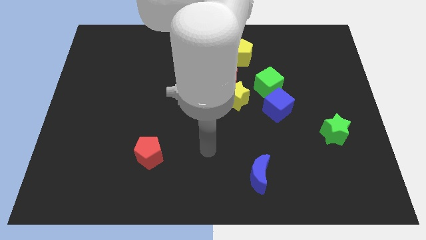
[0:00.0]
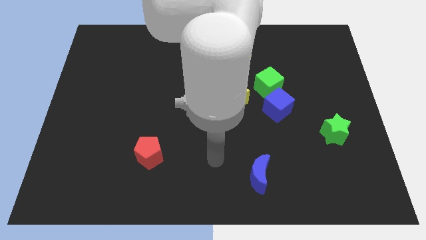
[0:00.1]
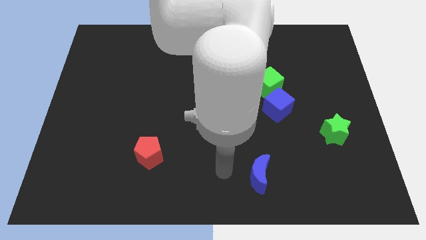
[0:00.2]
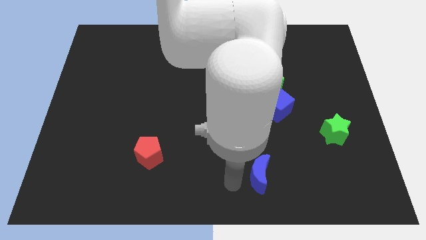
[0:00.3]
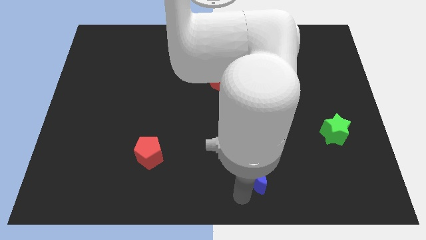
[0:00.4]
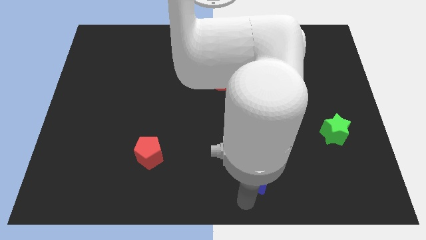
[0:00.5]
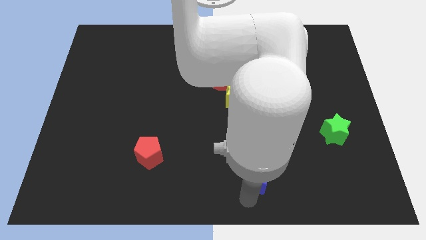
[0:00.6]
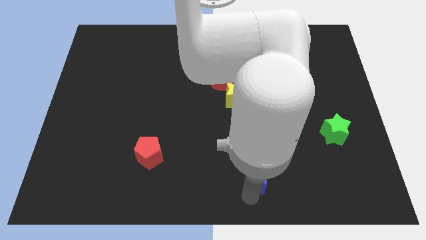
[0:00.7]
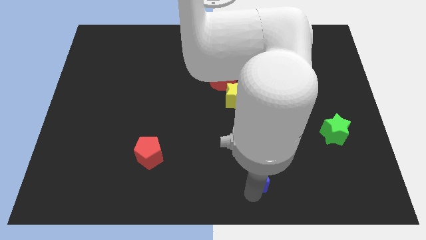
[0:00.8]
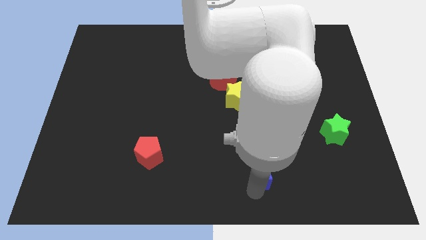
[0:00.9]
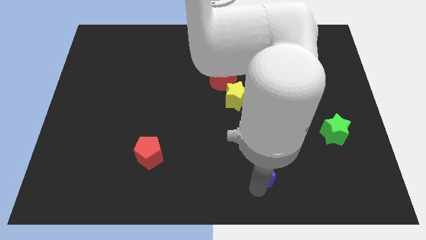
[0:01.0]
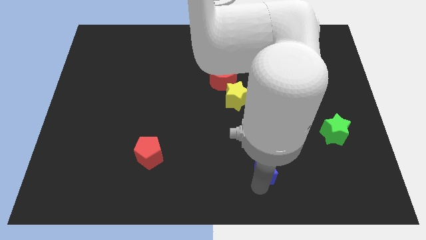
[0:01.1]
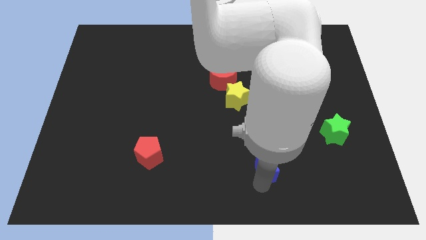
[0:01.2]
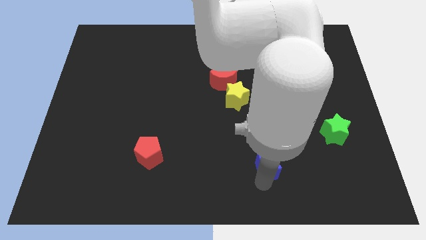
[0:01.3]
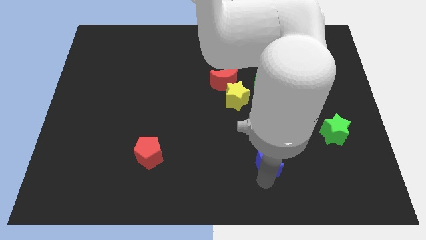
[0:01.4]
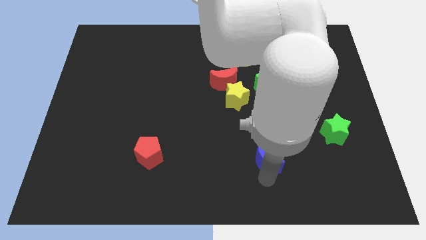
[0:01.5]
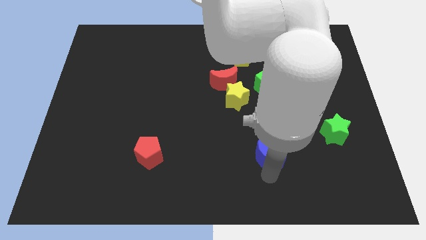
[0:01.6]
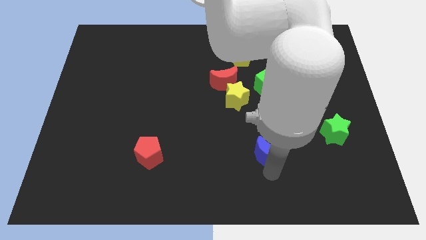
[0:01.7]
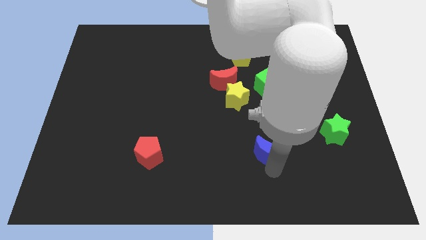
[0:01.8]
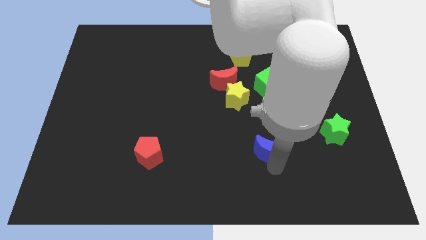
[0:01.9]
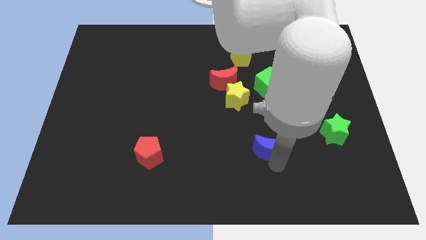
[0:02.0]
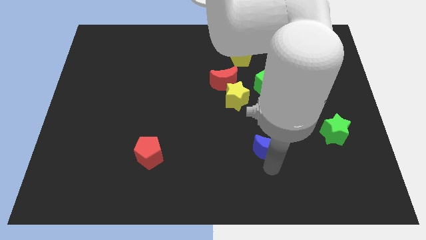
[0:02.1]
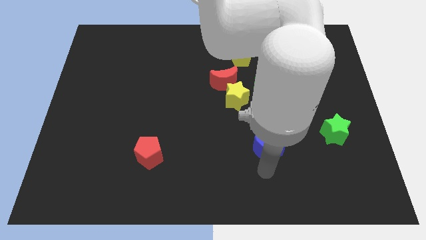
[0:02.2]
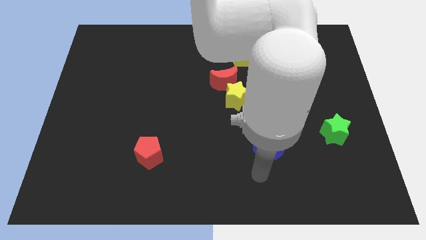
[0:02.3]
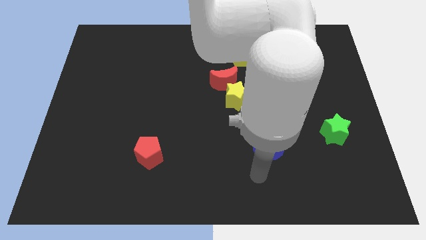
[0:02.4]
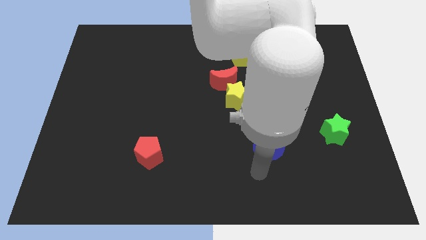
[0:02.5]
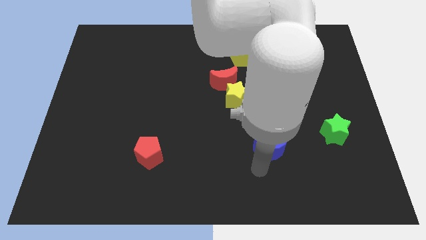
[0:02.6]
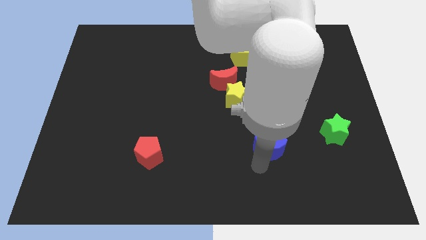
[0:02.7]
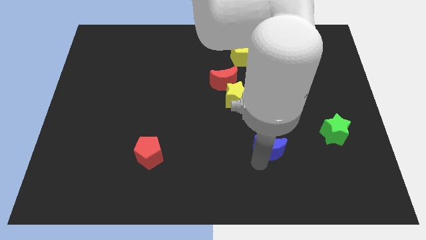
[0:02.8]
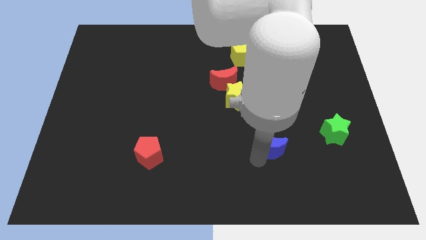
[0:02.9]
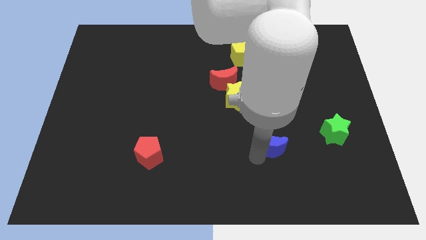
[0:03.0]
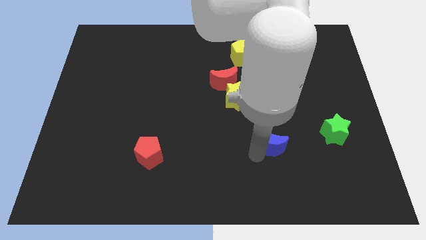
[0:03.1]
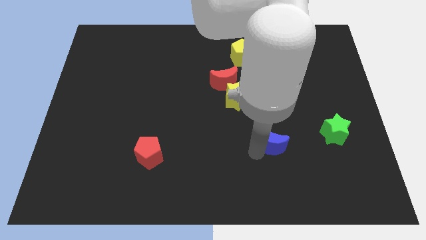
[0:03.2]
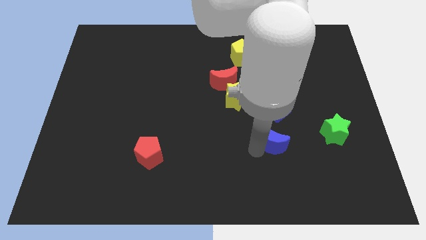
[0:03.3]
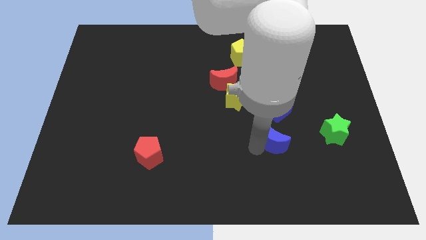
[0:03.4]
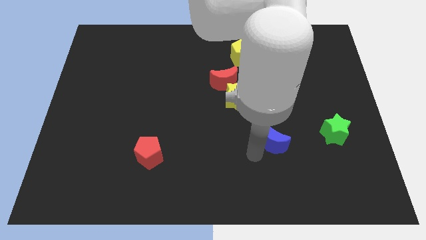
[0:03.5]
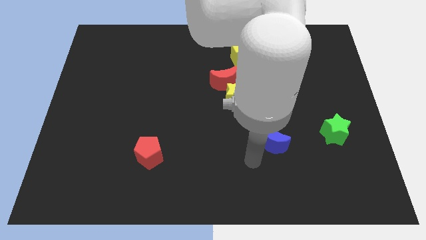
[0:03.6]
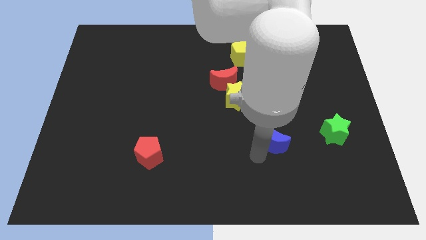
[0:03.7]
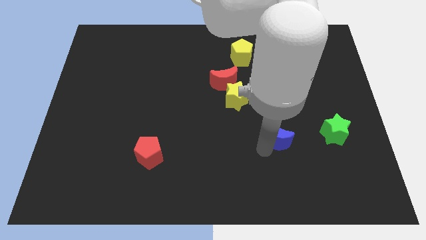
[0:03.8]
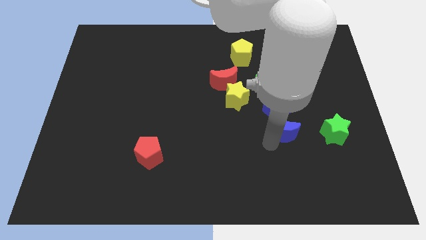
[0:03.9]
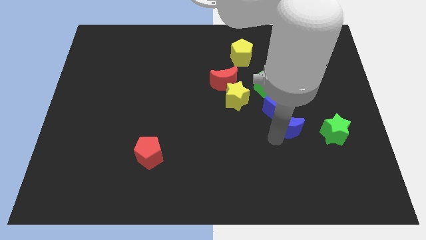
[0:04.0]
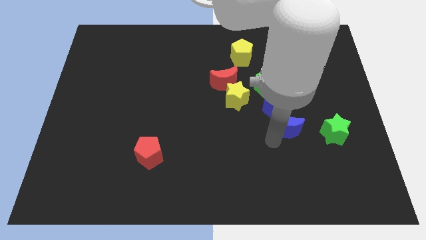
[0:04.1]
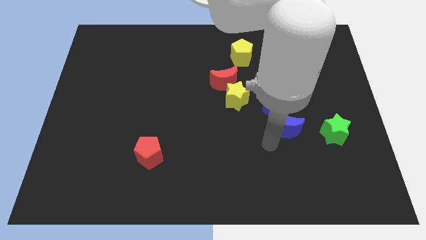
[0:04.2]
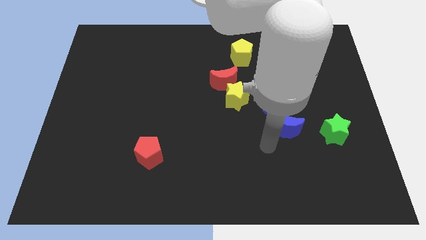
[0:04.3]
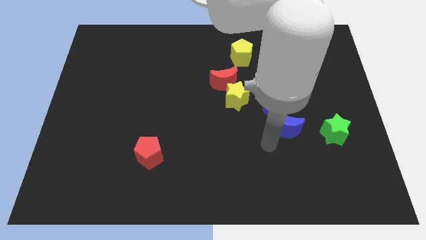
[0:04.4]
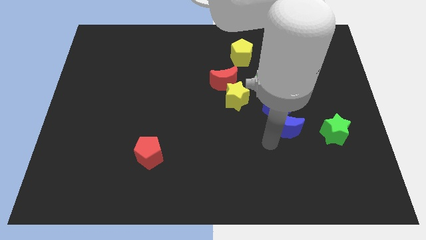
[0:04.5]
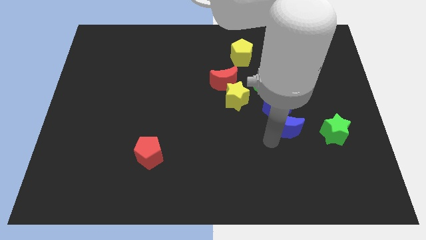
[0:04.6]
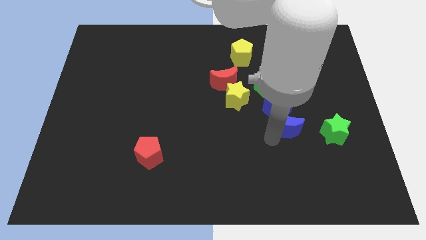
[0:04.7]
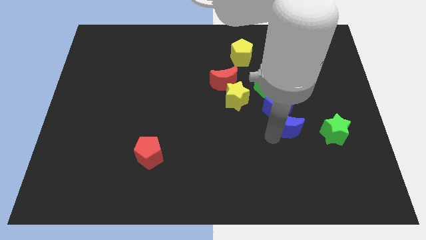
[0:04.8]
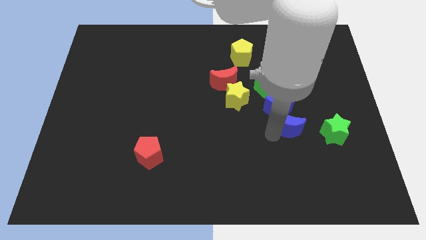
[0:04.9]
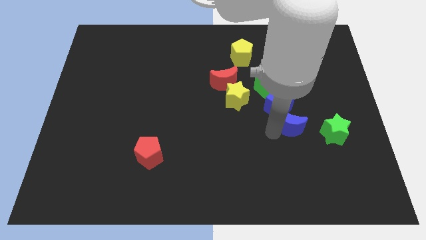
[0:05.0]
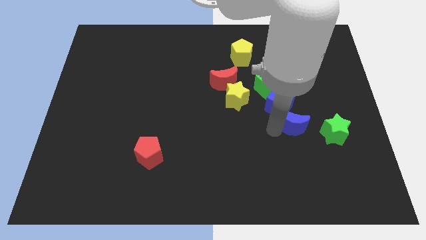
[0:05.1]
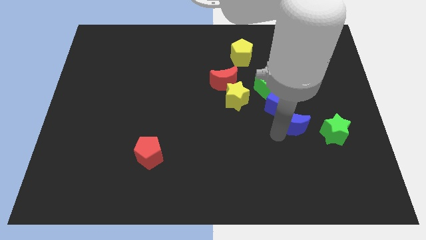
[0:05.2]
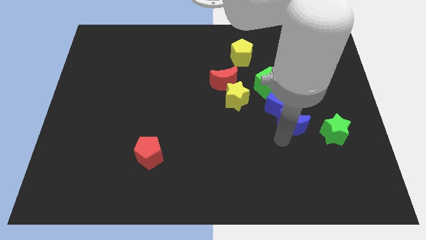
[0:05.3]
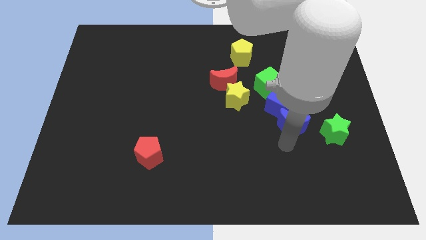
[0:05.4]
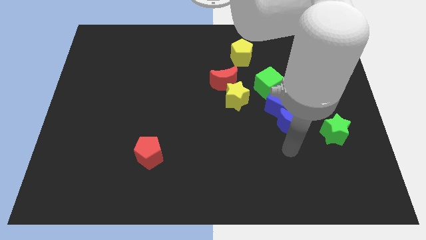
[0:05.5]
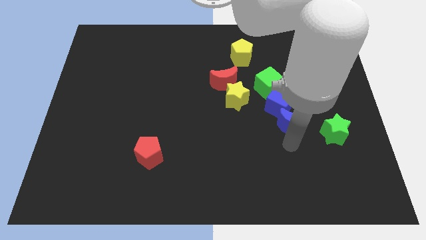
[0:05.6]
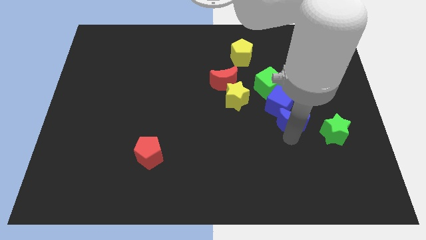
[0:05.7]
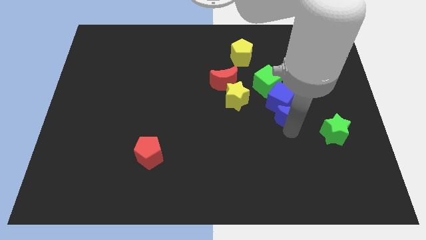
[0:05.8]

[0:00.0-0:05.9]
move the blue moon diagonally down and to the right of the green cube

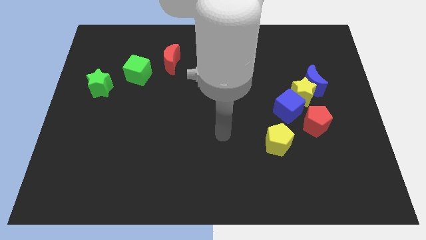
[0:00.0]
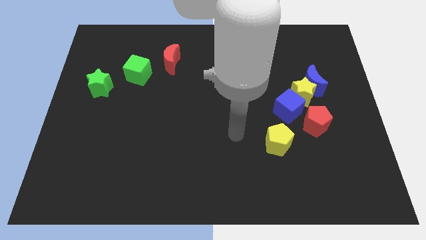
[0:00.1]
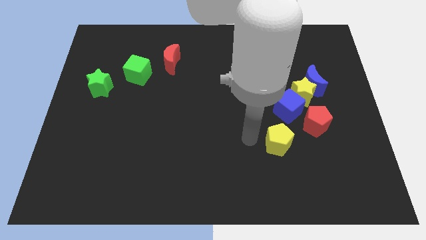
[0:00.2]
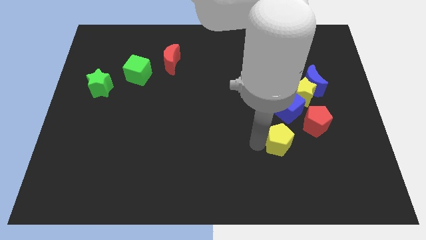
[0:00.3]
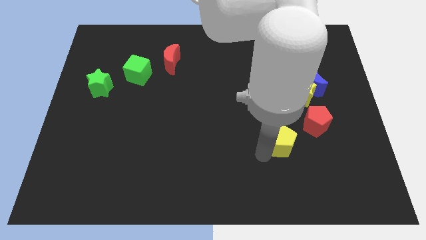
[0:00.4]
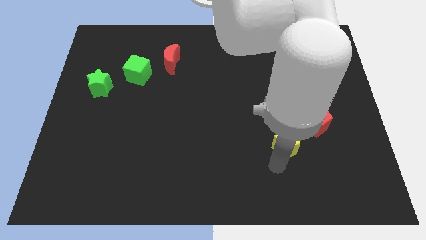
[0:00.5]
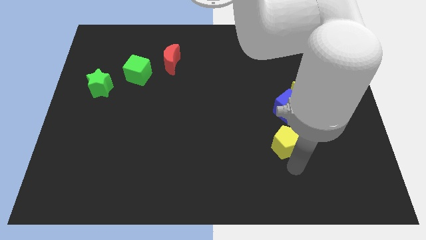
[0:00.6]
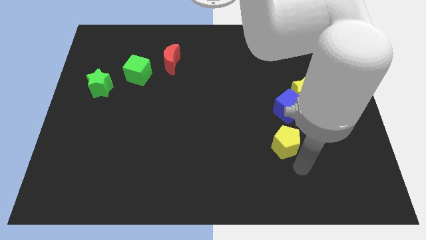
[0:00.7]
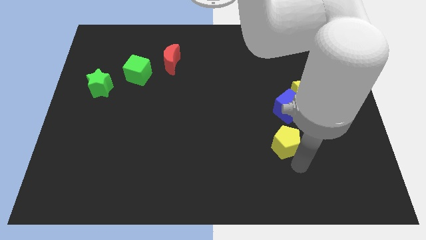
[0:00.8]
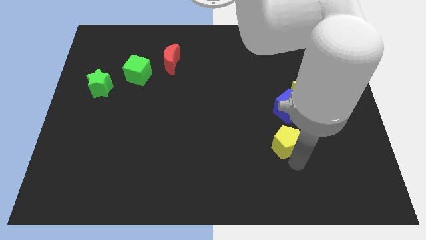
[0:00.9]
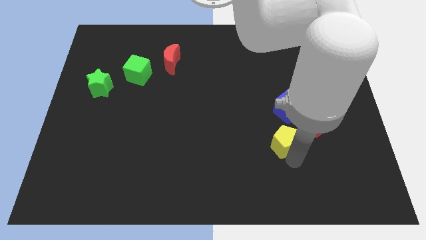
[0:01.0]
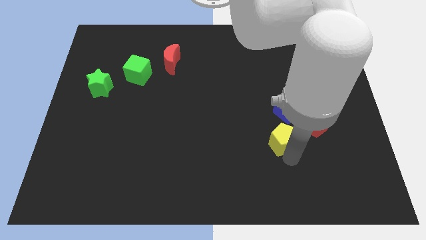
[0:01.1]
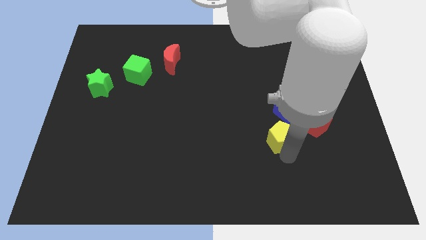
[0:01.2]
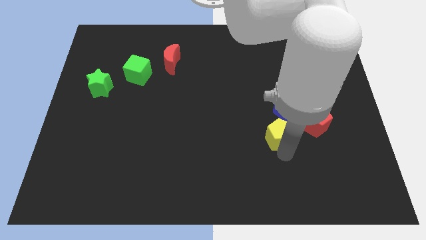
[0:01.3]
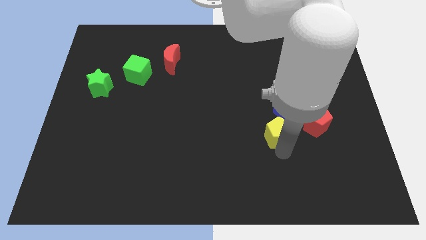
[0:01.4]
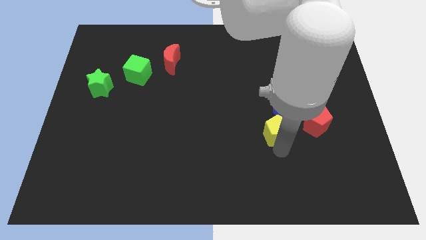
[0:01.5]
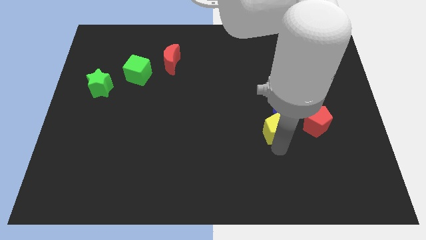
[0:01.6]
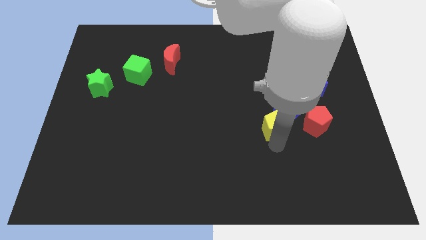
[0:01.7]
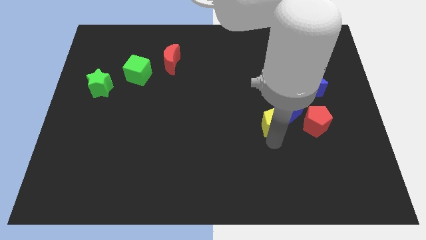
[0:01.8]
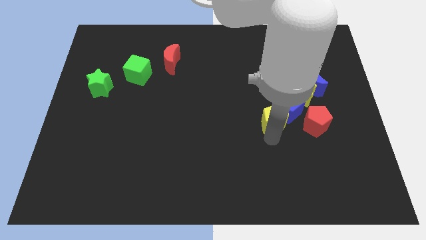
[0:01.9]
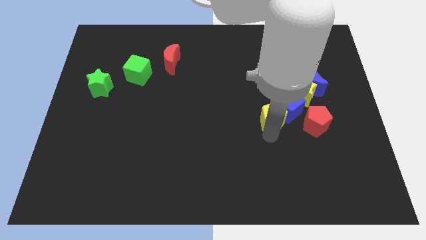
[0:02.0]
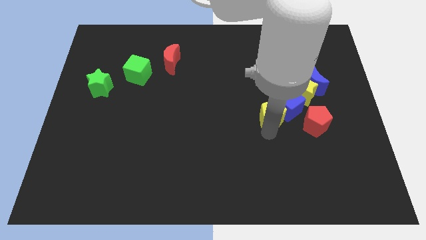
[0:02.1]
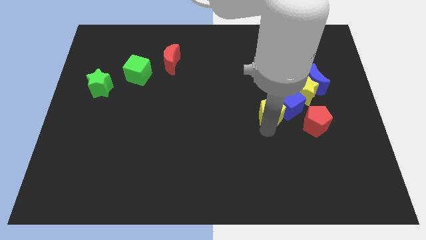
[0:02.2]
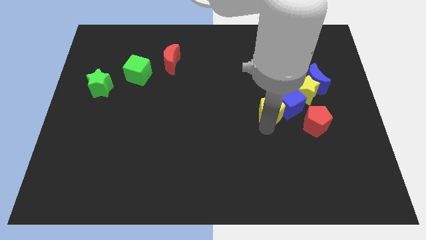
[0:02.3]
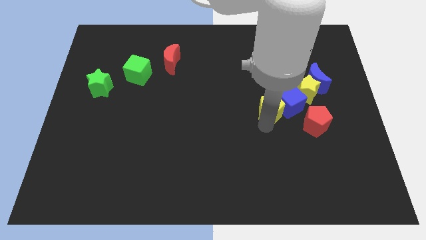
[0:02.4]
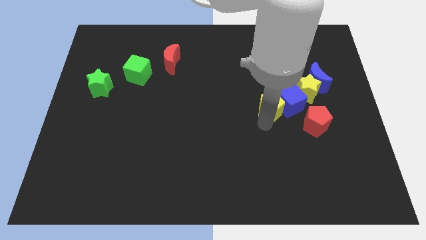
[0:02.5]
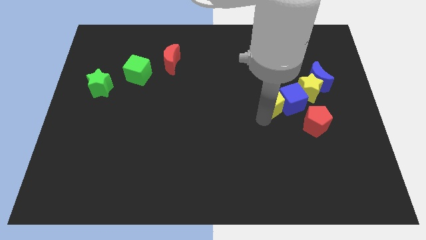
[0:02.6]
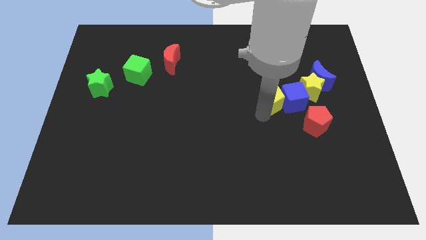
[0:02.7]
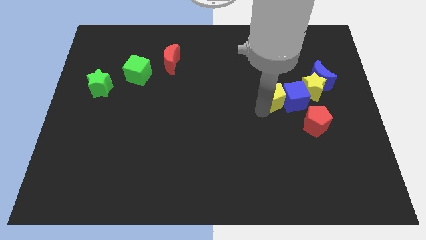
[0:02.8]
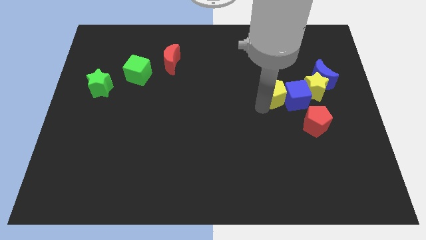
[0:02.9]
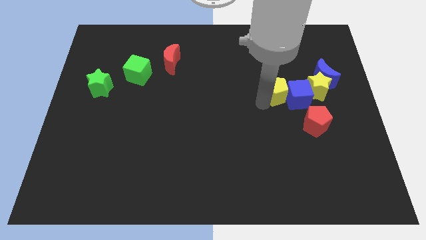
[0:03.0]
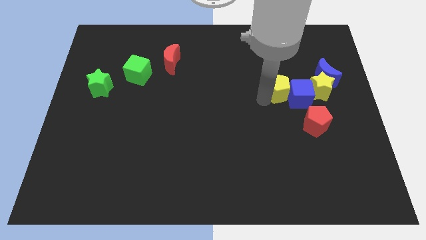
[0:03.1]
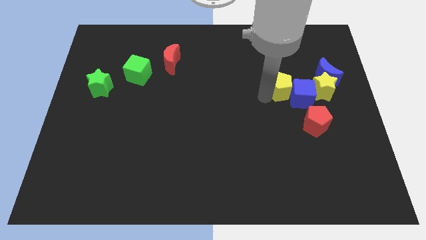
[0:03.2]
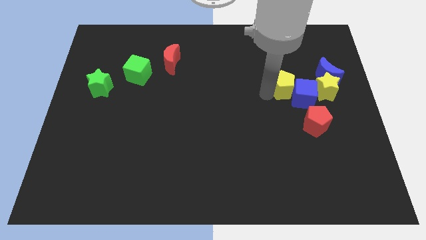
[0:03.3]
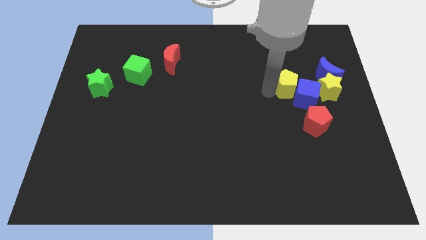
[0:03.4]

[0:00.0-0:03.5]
slide the yellow pentagon above the blue cube
